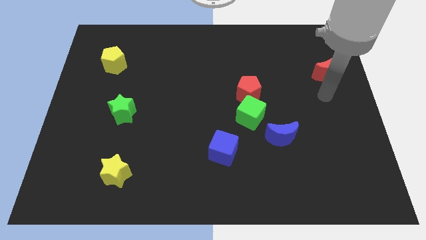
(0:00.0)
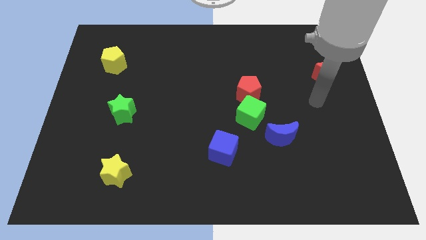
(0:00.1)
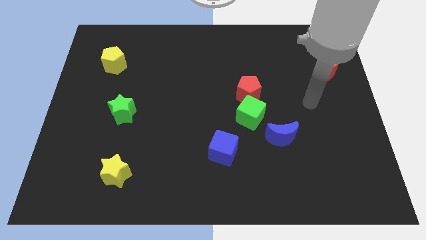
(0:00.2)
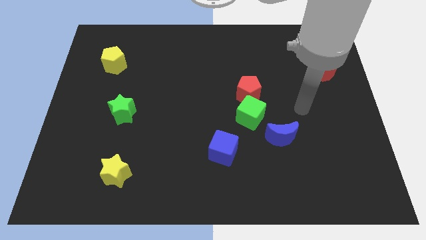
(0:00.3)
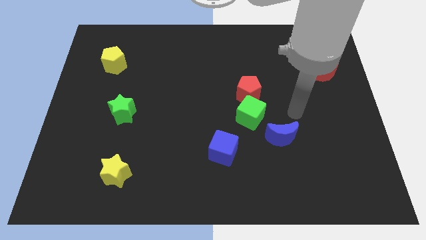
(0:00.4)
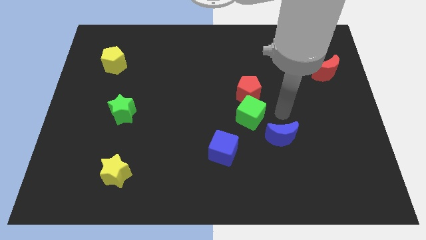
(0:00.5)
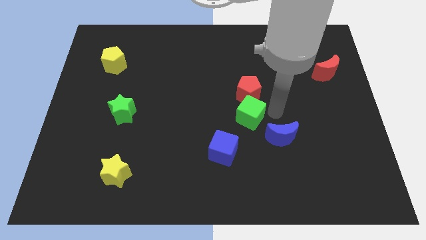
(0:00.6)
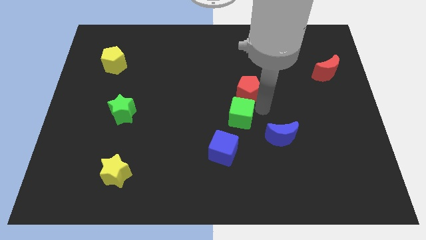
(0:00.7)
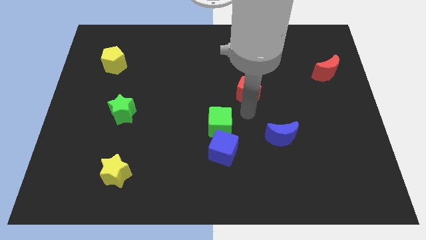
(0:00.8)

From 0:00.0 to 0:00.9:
pull the red pentagon apart from the green cube

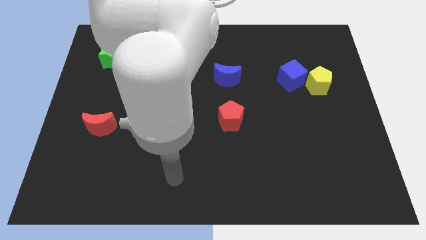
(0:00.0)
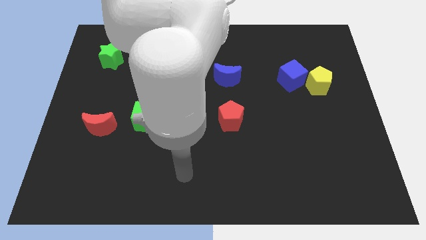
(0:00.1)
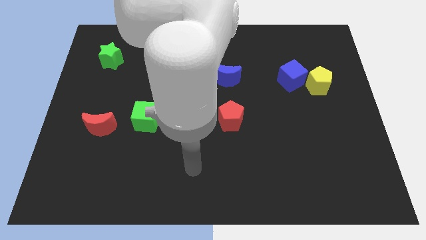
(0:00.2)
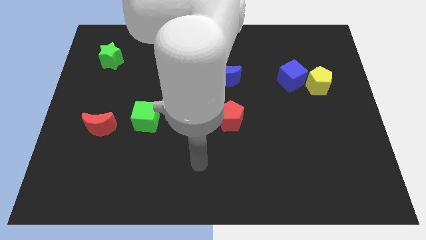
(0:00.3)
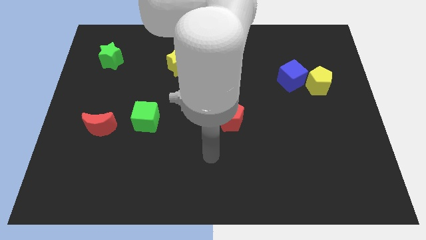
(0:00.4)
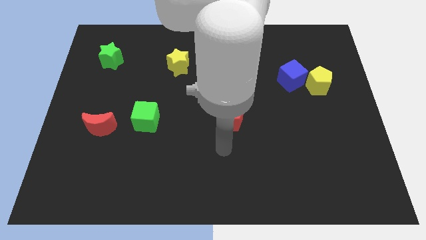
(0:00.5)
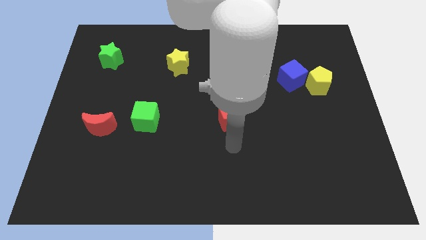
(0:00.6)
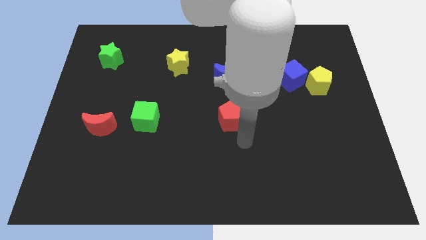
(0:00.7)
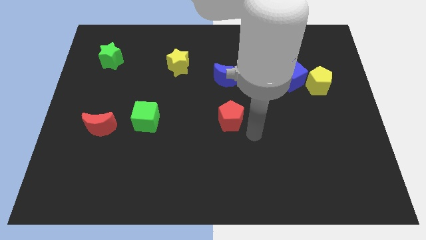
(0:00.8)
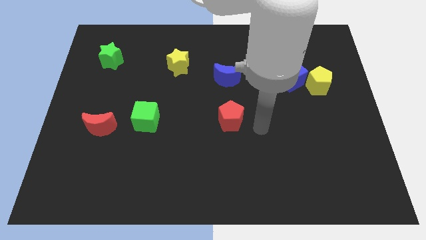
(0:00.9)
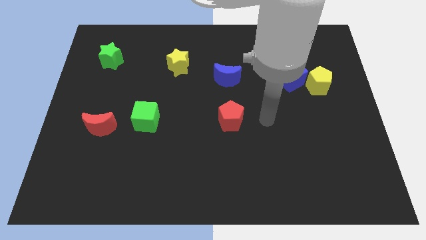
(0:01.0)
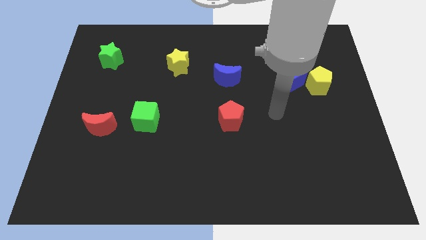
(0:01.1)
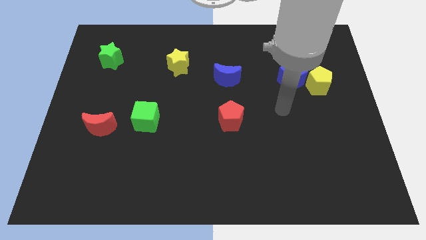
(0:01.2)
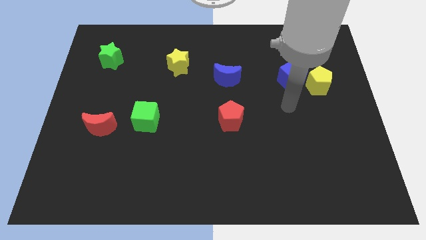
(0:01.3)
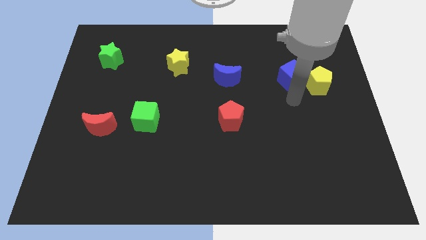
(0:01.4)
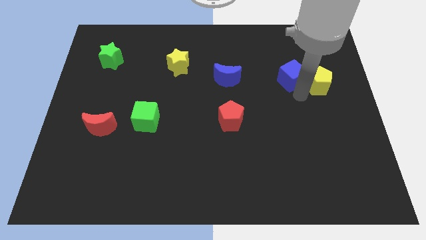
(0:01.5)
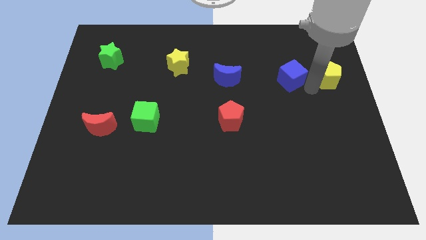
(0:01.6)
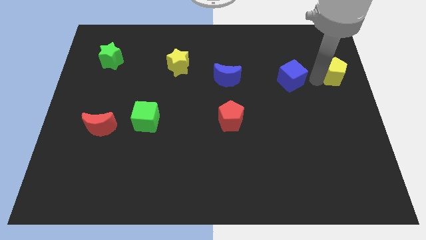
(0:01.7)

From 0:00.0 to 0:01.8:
separate the blue cube from the yellow pentagon

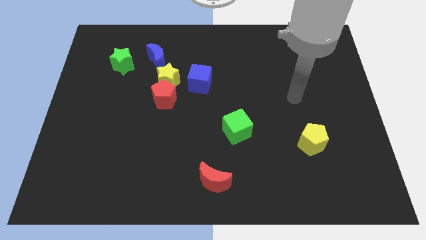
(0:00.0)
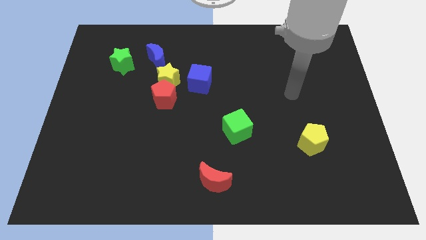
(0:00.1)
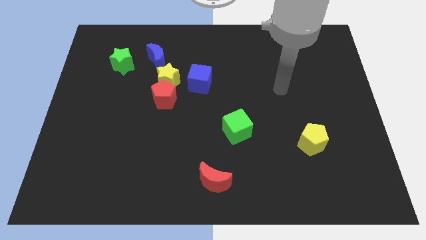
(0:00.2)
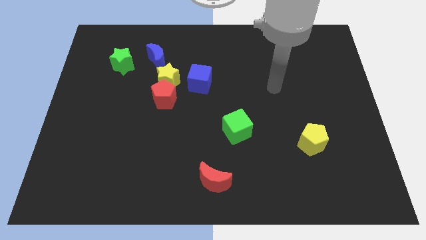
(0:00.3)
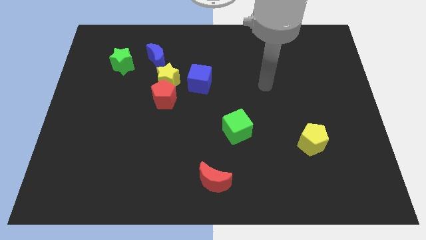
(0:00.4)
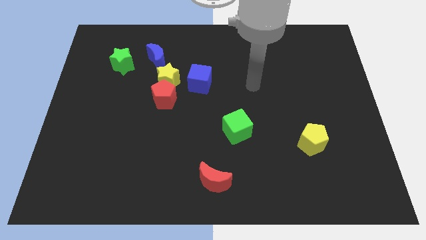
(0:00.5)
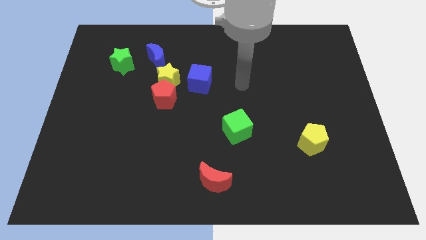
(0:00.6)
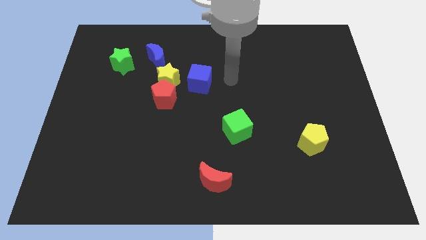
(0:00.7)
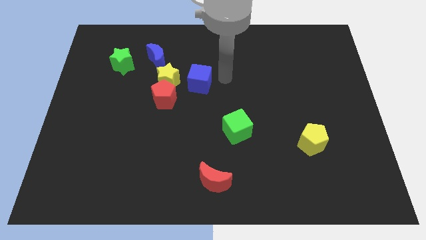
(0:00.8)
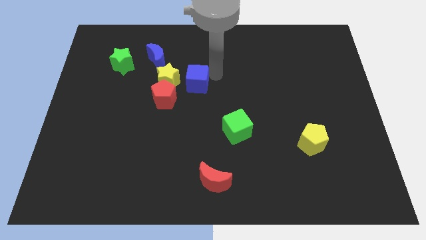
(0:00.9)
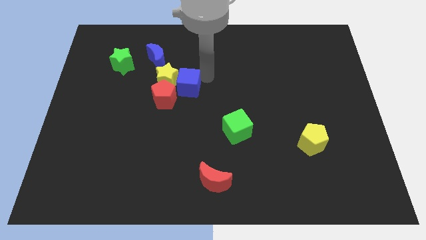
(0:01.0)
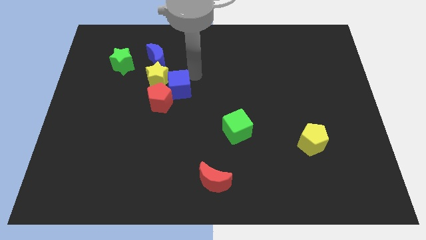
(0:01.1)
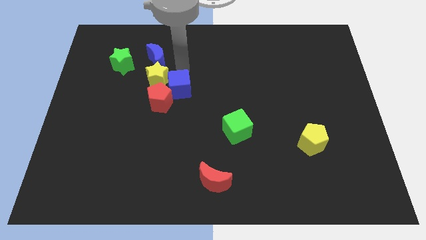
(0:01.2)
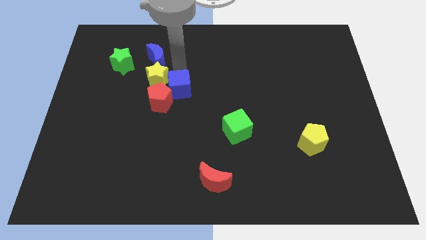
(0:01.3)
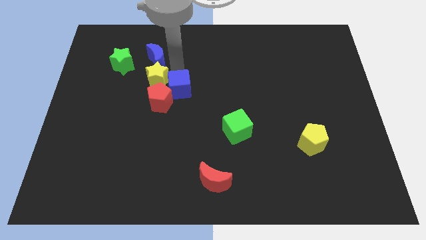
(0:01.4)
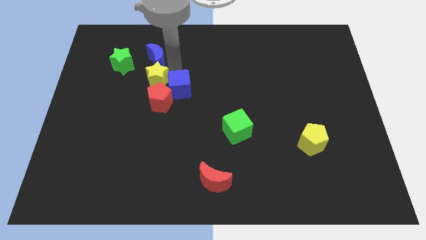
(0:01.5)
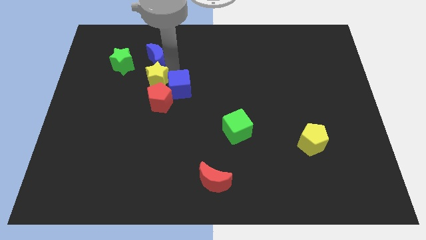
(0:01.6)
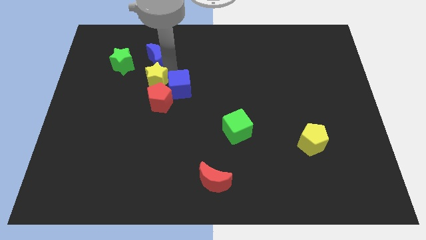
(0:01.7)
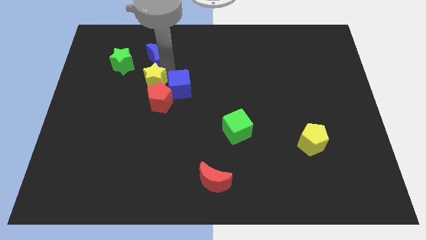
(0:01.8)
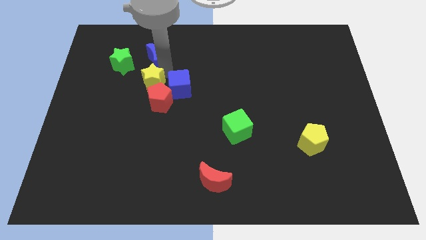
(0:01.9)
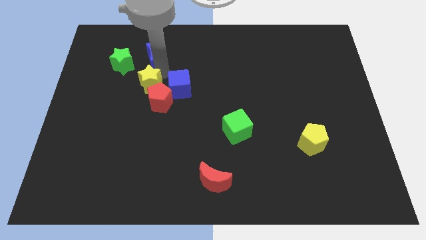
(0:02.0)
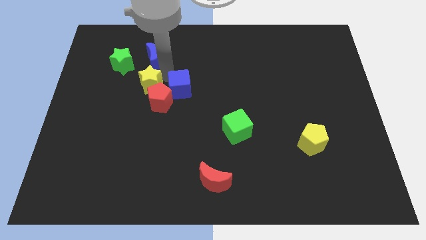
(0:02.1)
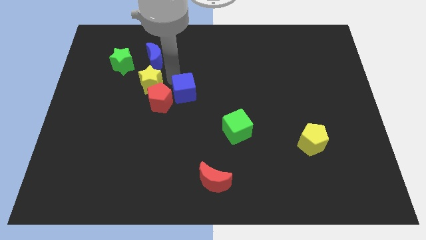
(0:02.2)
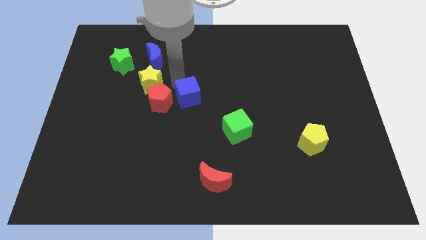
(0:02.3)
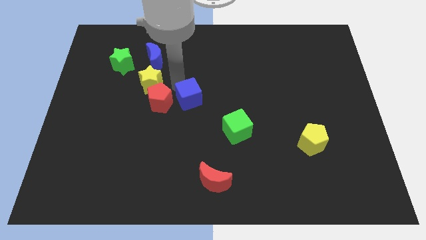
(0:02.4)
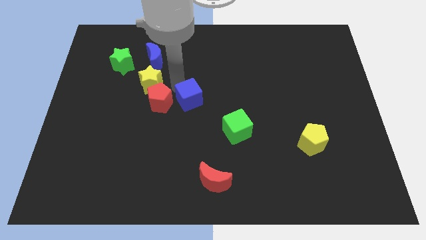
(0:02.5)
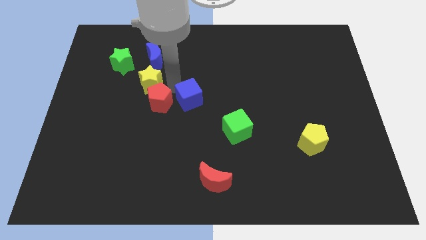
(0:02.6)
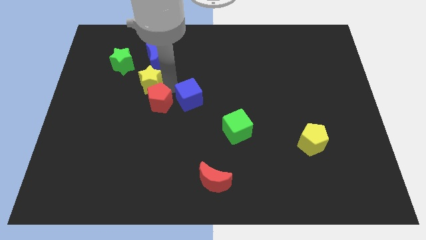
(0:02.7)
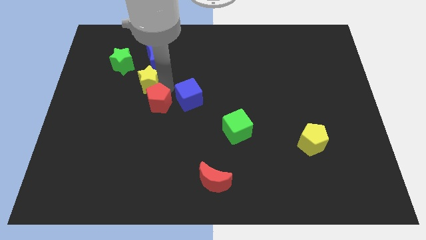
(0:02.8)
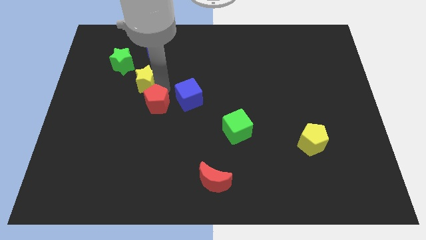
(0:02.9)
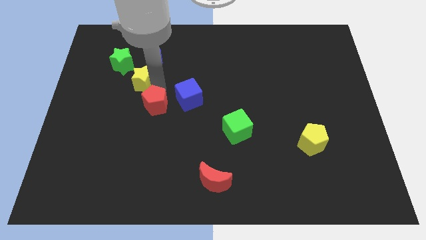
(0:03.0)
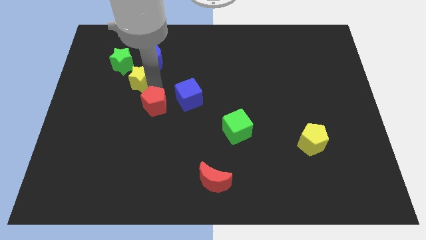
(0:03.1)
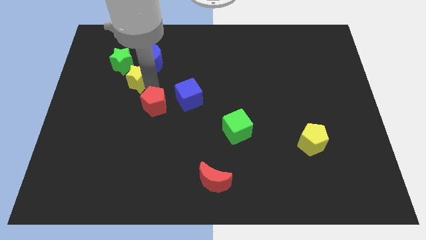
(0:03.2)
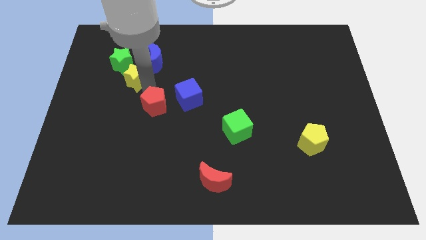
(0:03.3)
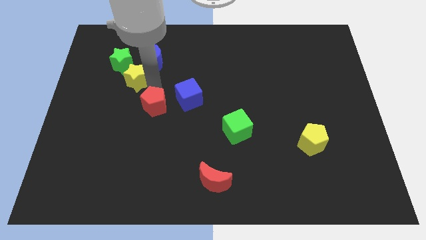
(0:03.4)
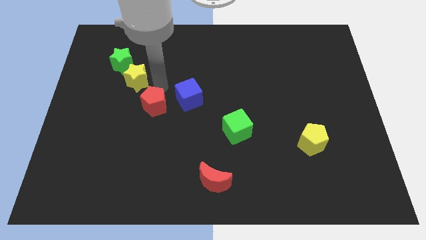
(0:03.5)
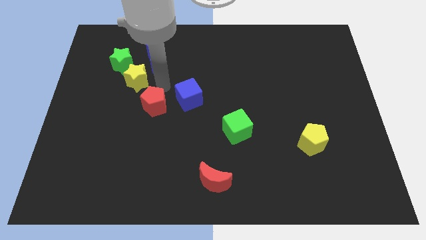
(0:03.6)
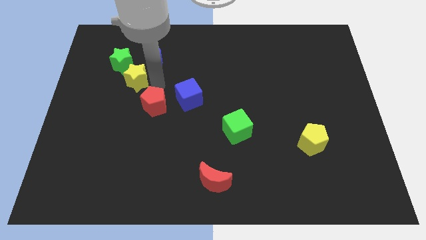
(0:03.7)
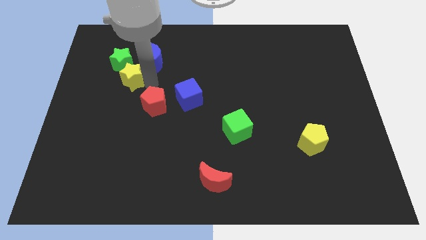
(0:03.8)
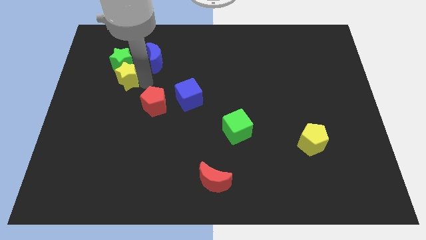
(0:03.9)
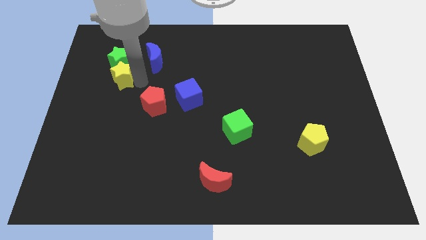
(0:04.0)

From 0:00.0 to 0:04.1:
move the yellow star away from the red pentagon, blue cube, and blue moon

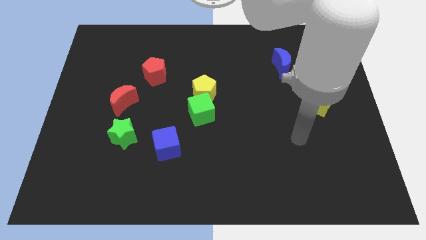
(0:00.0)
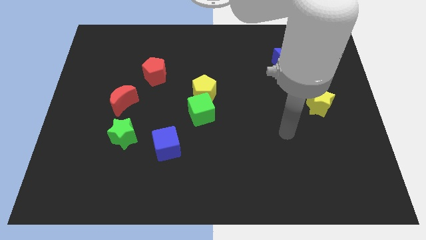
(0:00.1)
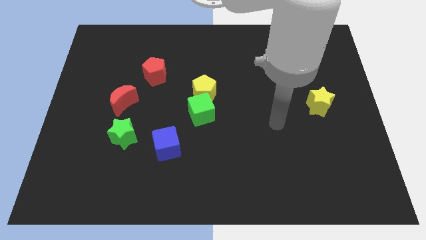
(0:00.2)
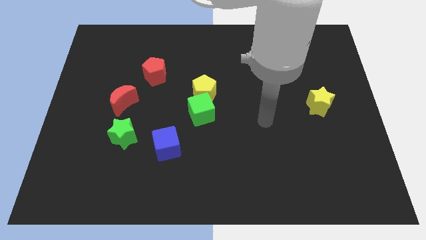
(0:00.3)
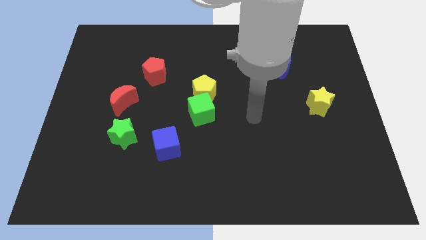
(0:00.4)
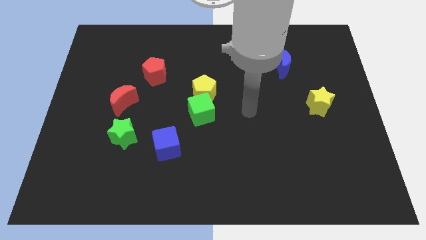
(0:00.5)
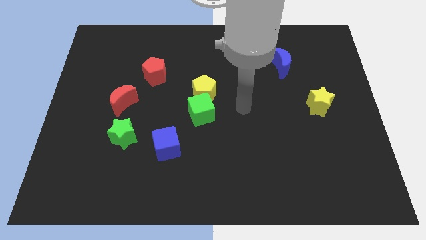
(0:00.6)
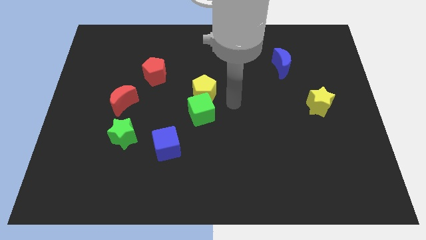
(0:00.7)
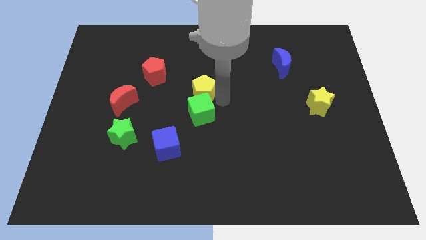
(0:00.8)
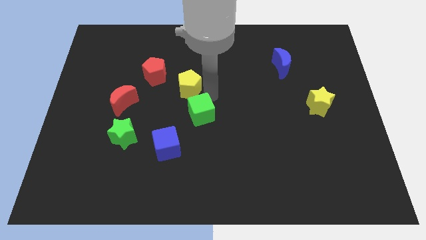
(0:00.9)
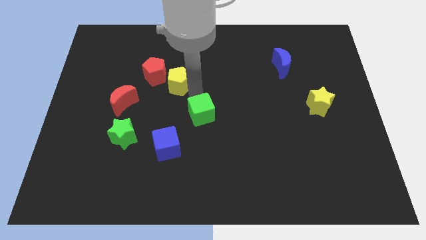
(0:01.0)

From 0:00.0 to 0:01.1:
move the green cube away from the yellow pentagon

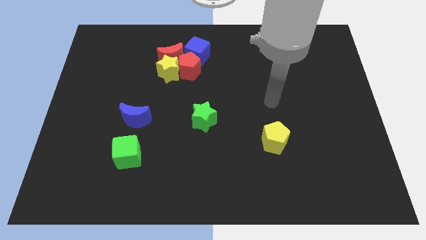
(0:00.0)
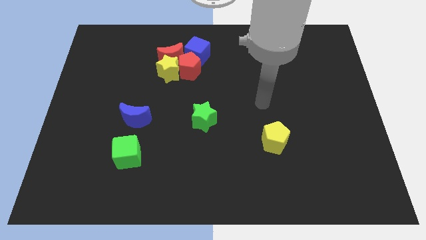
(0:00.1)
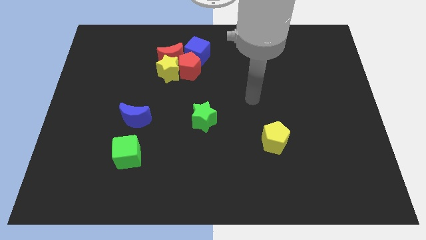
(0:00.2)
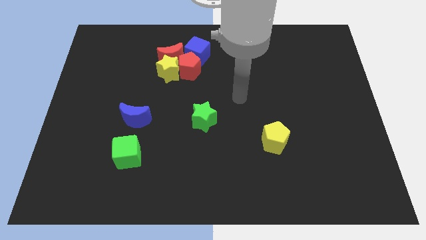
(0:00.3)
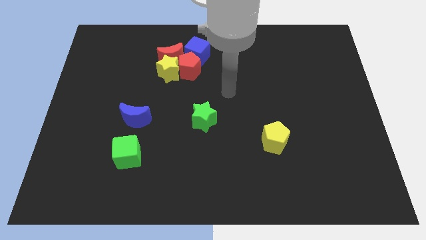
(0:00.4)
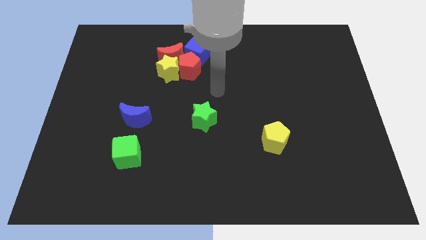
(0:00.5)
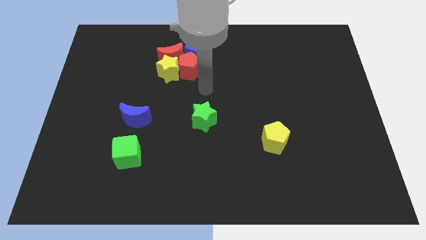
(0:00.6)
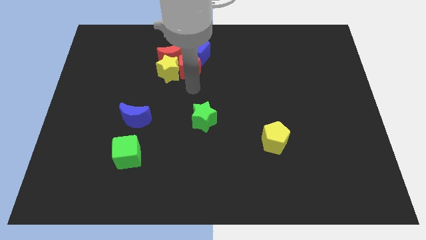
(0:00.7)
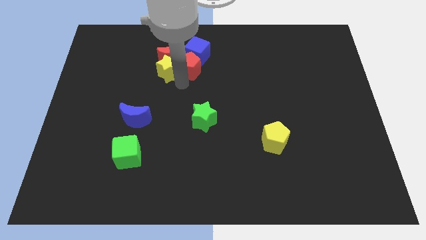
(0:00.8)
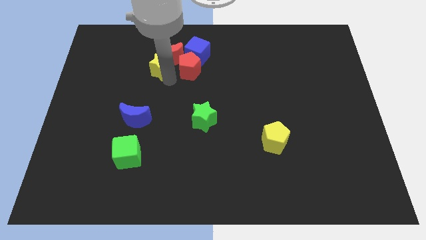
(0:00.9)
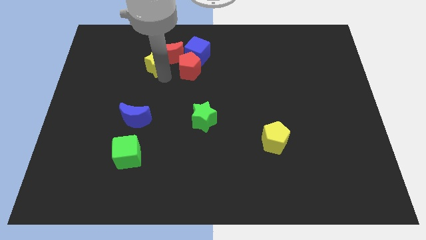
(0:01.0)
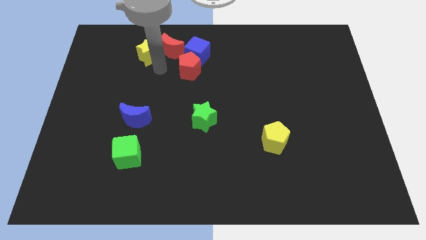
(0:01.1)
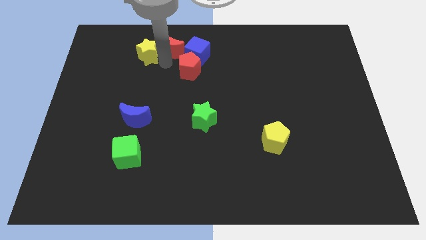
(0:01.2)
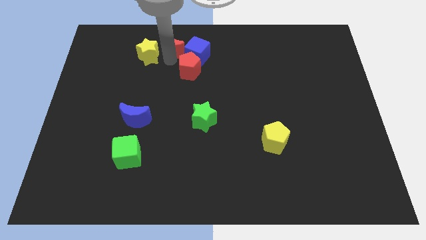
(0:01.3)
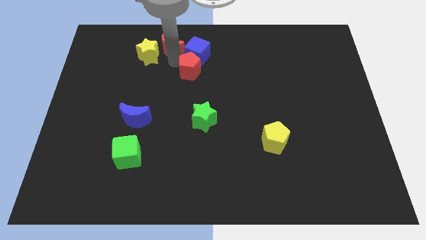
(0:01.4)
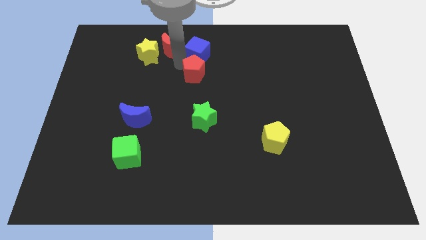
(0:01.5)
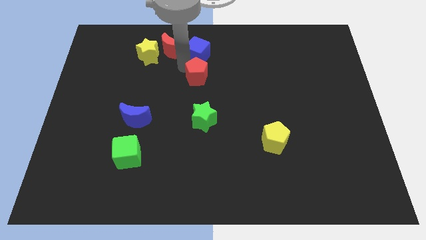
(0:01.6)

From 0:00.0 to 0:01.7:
move the red pentagon away from the group of blocks
